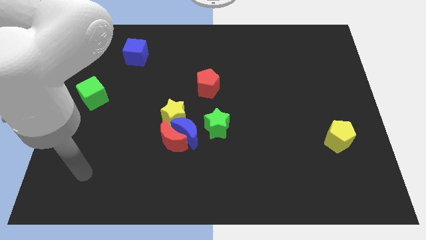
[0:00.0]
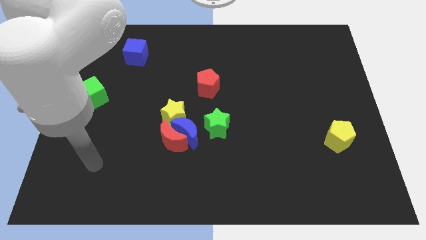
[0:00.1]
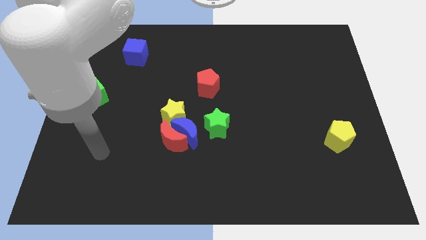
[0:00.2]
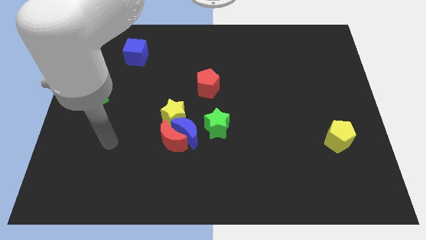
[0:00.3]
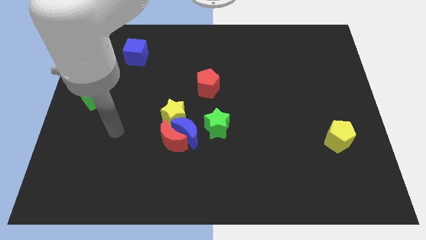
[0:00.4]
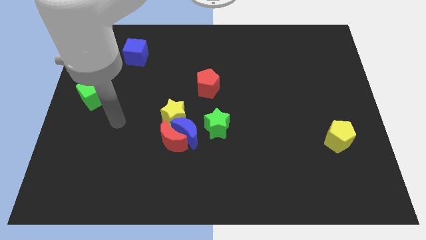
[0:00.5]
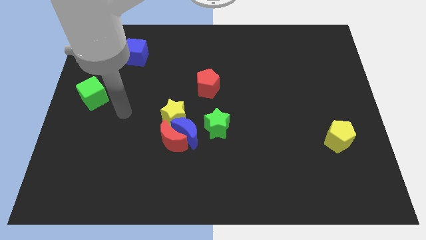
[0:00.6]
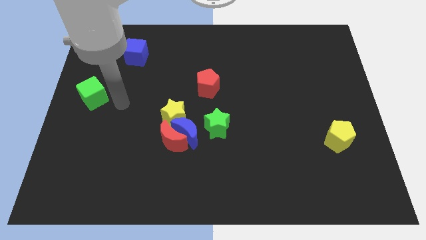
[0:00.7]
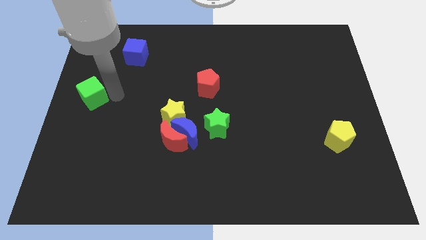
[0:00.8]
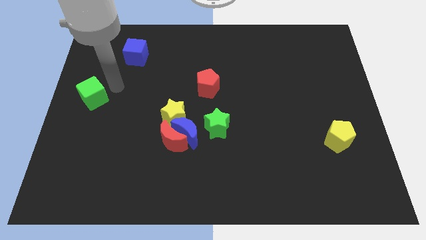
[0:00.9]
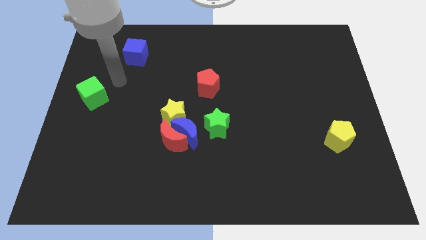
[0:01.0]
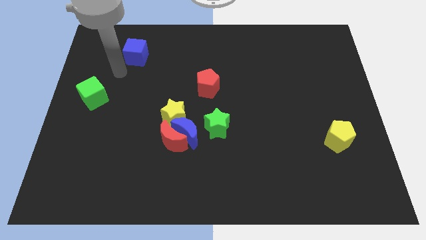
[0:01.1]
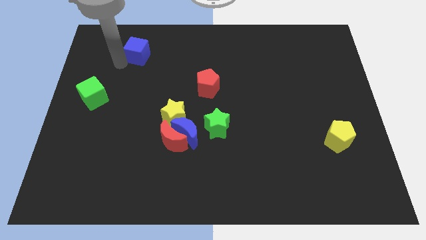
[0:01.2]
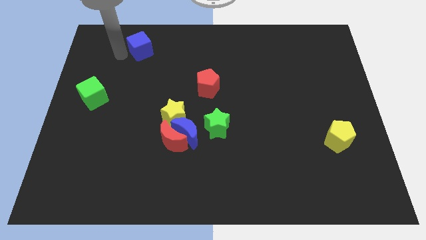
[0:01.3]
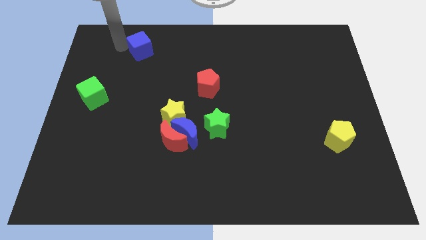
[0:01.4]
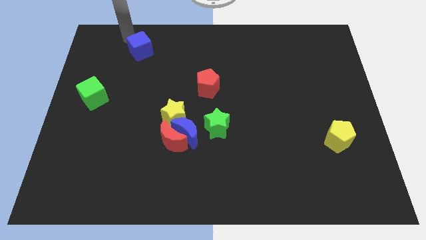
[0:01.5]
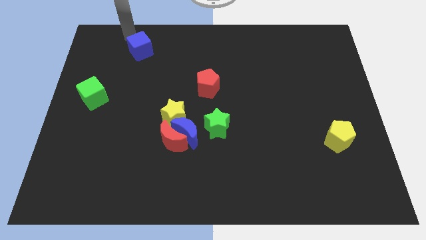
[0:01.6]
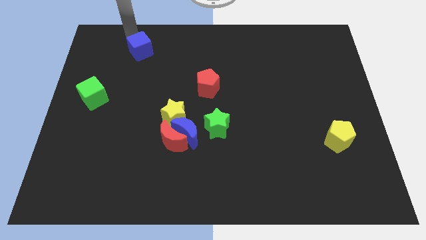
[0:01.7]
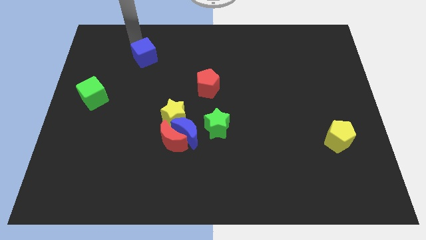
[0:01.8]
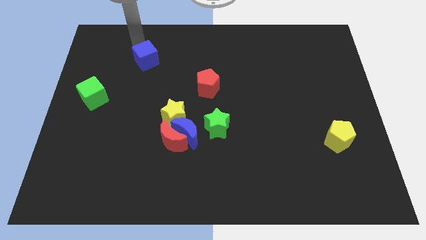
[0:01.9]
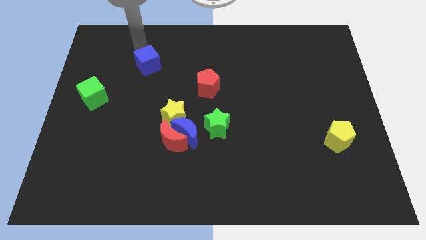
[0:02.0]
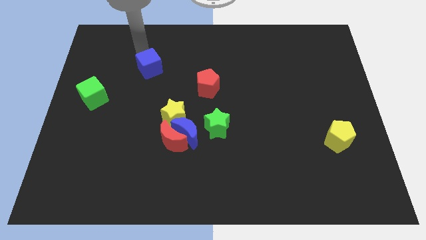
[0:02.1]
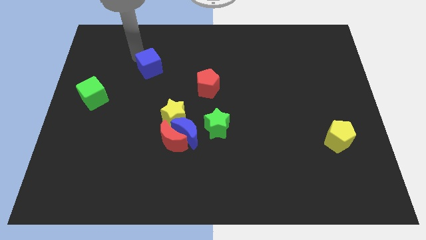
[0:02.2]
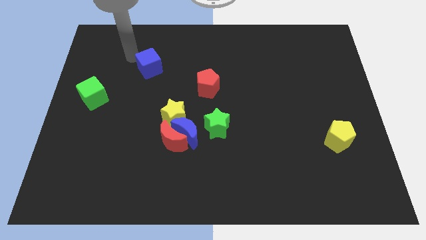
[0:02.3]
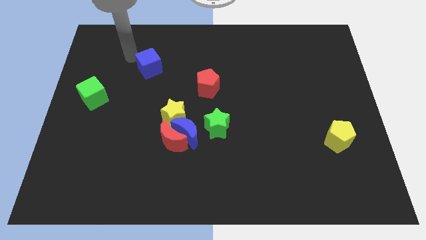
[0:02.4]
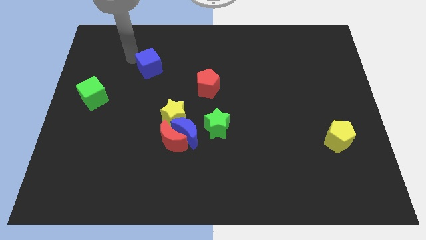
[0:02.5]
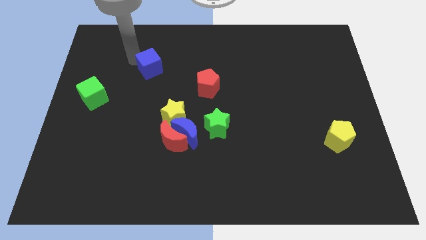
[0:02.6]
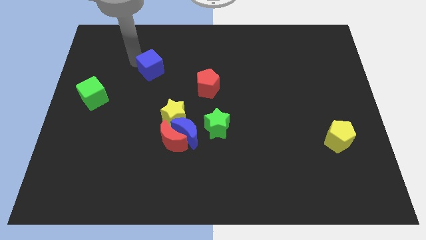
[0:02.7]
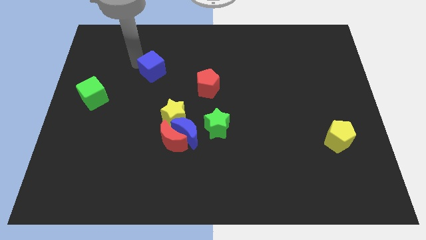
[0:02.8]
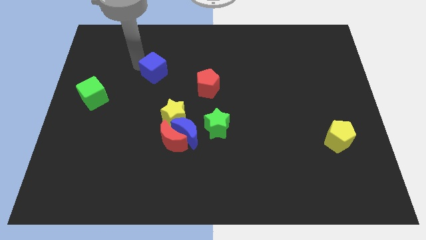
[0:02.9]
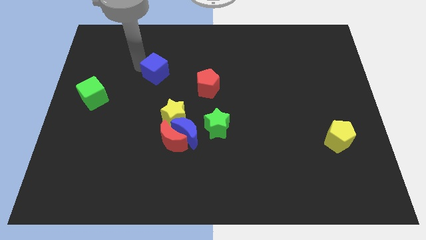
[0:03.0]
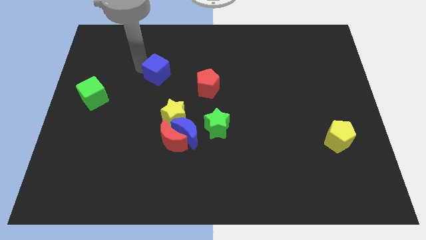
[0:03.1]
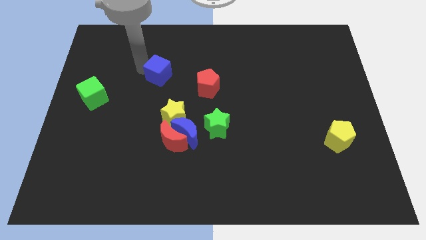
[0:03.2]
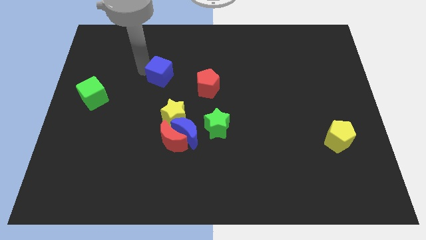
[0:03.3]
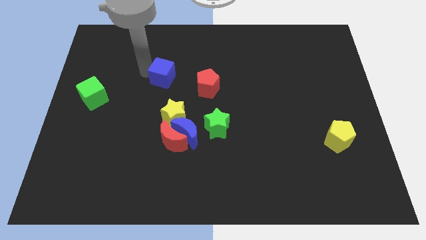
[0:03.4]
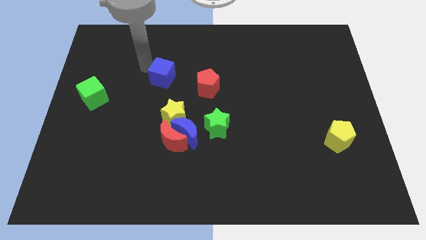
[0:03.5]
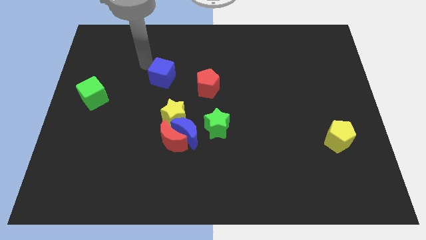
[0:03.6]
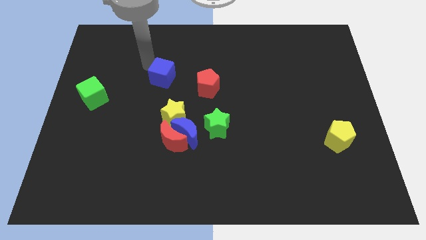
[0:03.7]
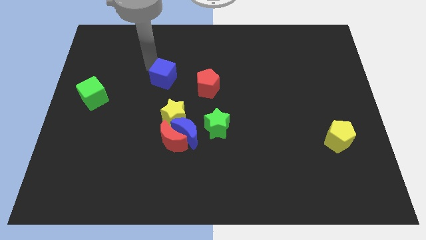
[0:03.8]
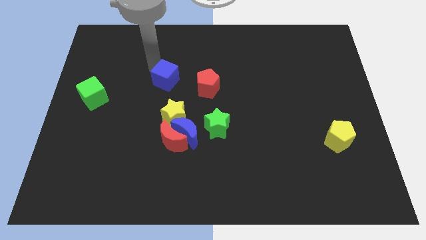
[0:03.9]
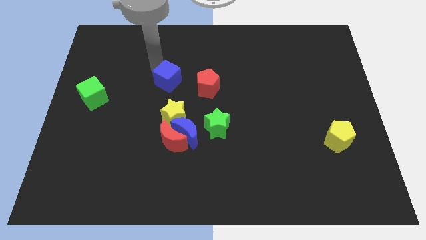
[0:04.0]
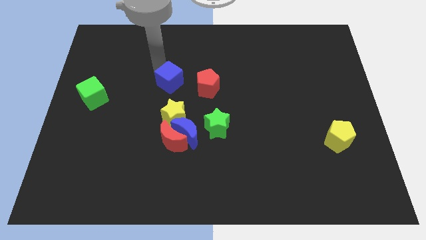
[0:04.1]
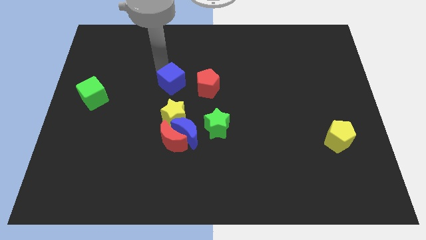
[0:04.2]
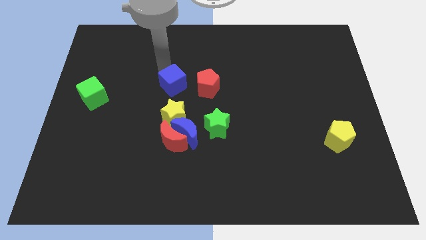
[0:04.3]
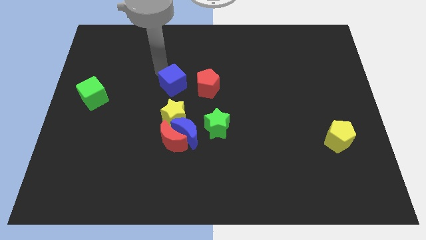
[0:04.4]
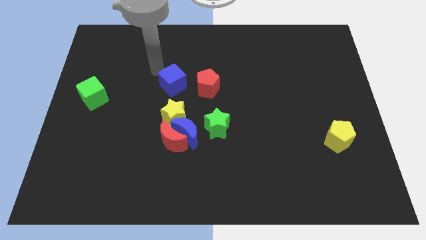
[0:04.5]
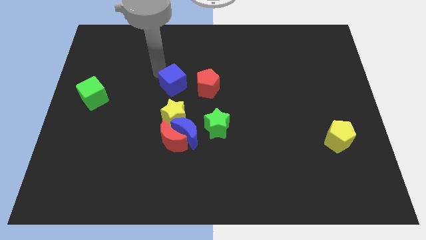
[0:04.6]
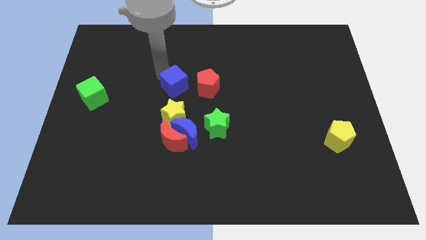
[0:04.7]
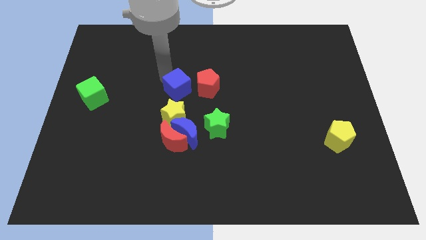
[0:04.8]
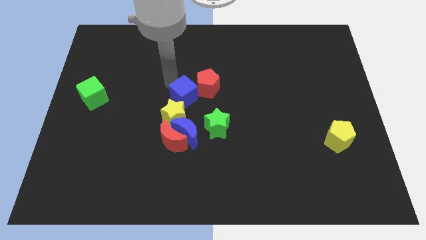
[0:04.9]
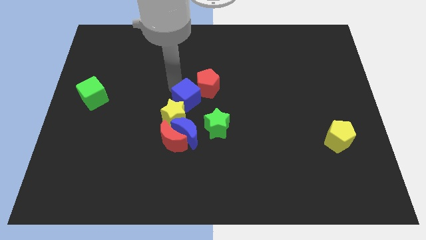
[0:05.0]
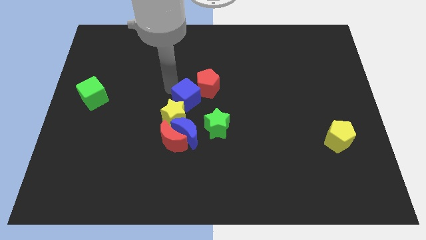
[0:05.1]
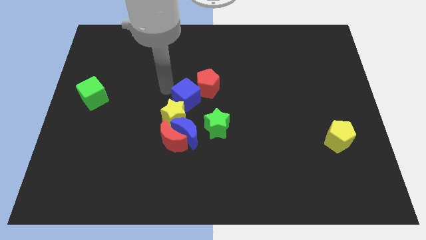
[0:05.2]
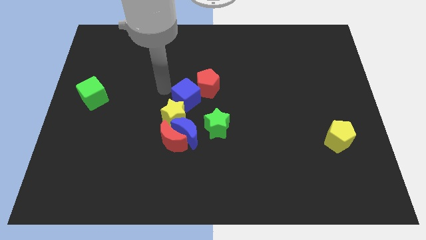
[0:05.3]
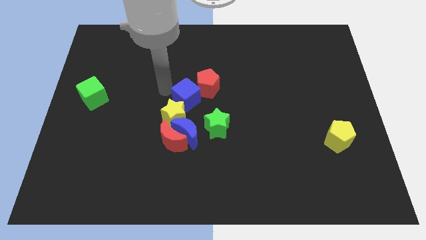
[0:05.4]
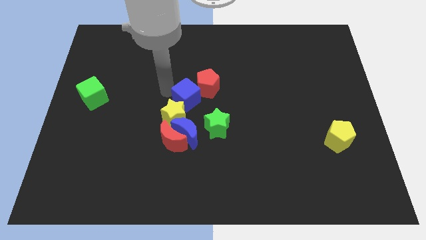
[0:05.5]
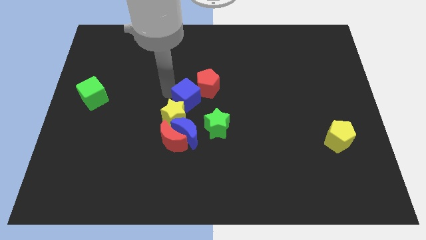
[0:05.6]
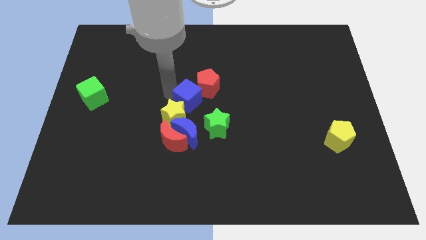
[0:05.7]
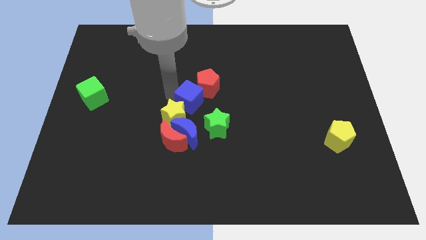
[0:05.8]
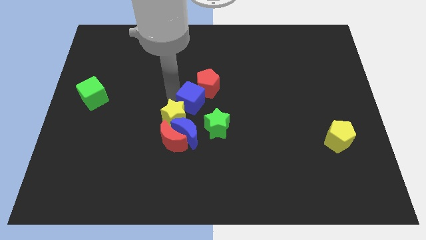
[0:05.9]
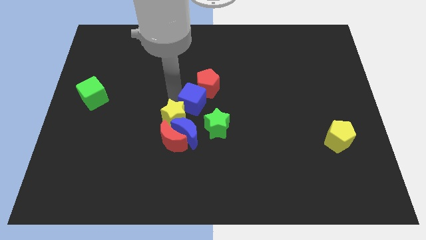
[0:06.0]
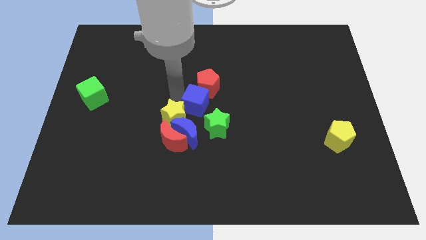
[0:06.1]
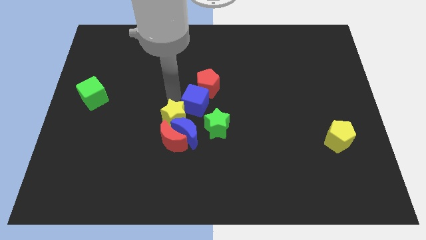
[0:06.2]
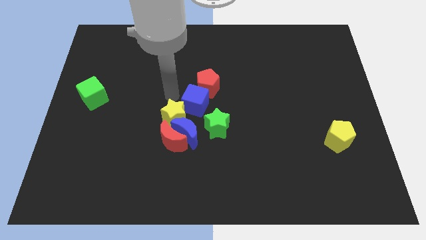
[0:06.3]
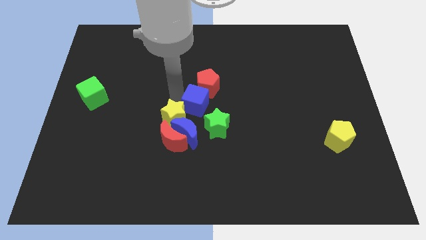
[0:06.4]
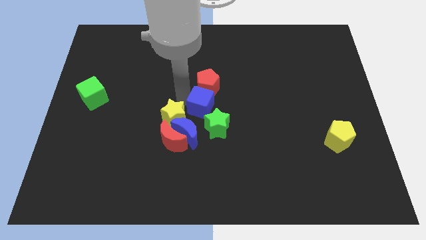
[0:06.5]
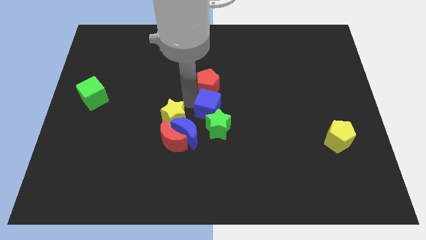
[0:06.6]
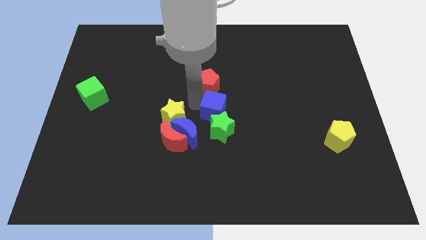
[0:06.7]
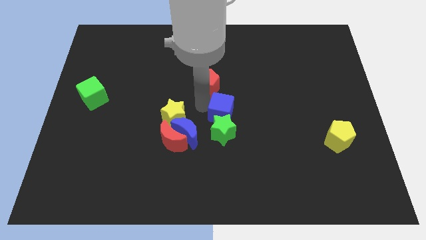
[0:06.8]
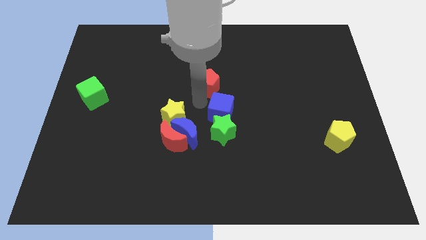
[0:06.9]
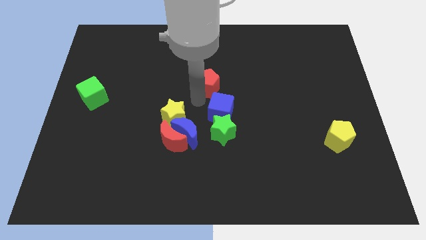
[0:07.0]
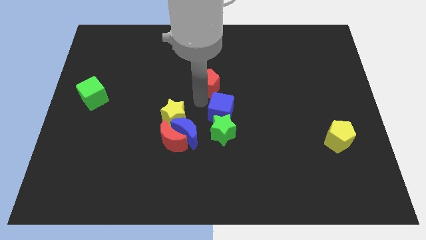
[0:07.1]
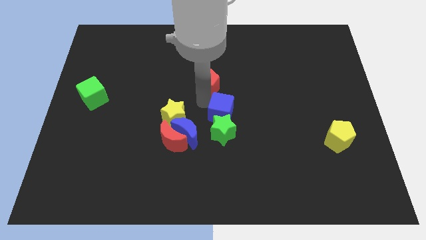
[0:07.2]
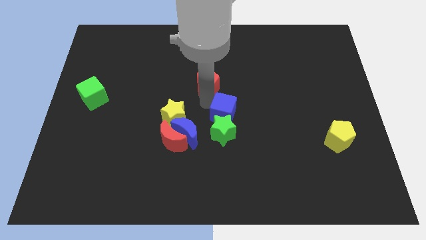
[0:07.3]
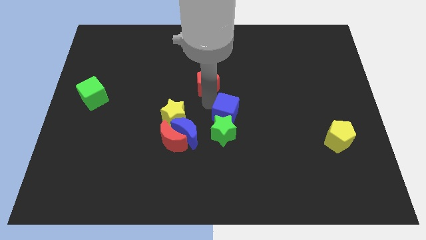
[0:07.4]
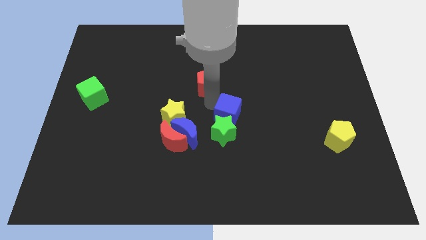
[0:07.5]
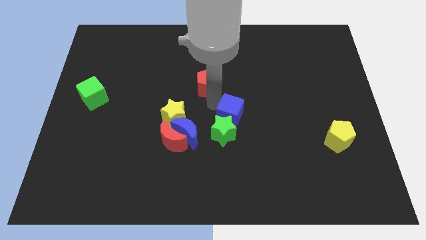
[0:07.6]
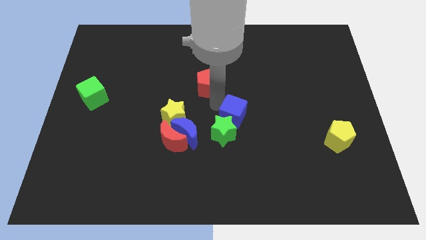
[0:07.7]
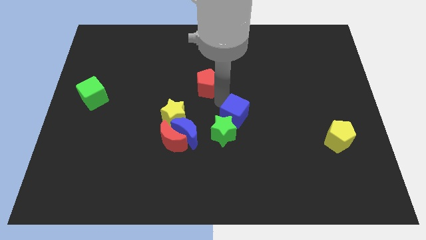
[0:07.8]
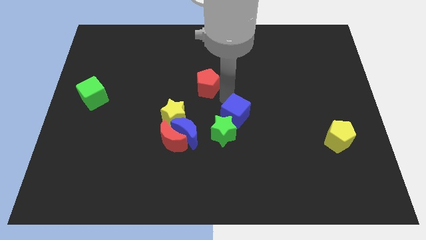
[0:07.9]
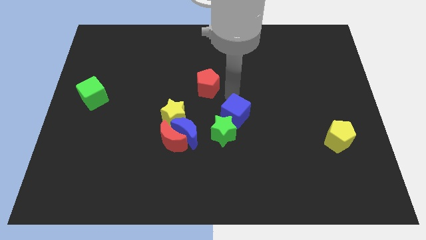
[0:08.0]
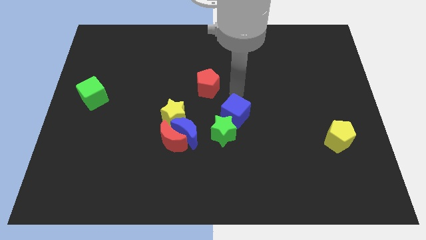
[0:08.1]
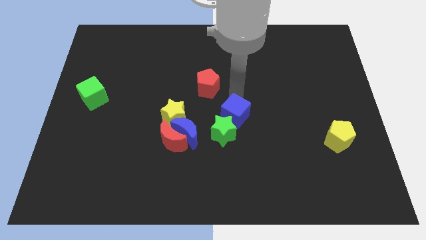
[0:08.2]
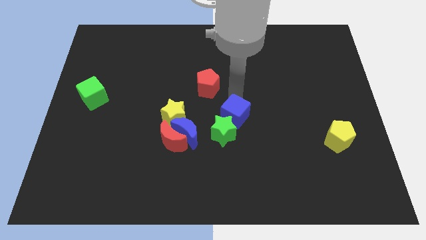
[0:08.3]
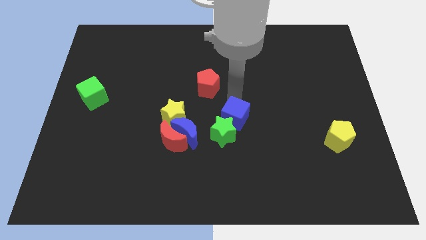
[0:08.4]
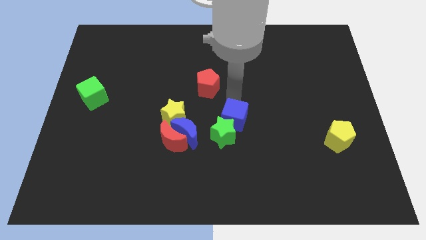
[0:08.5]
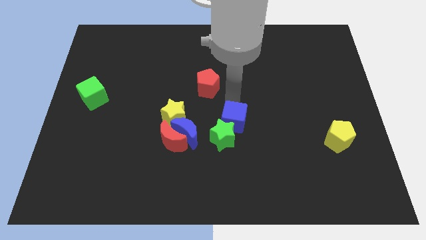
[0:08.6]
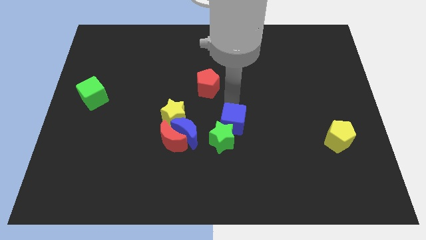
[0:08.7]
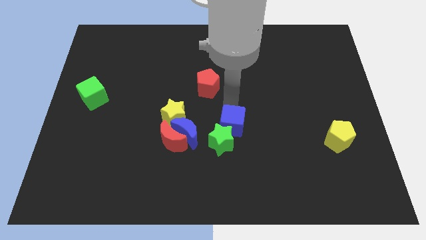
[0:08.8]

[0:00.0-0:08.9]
push the blue cube right of the red moon
